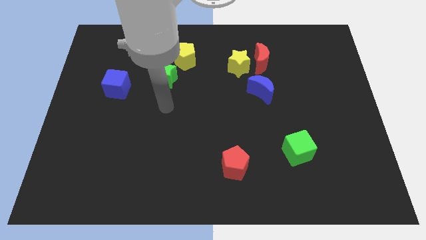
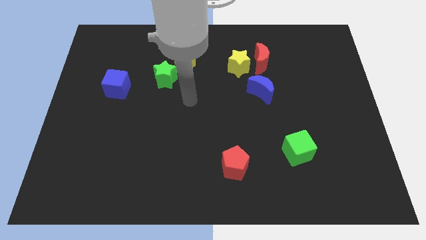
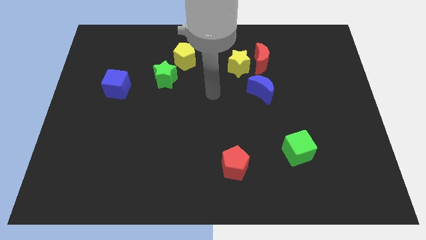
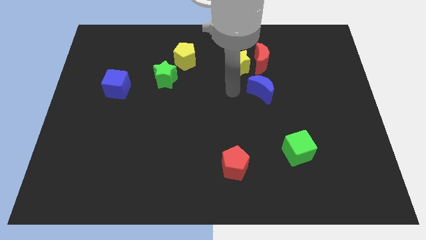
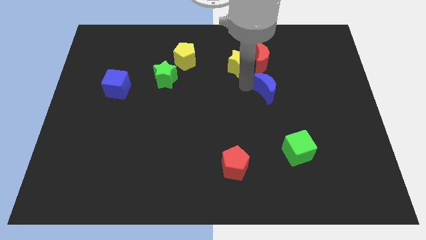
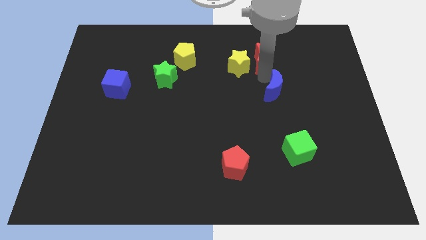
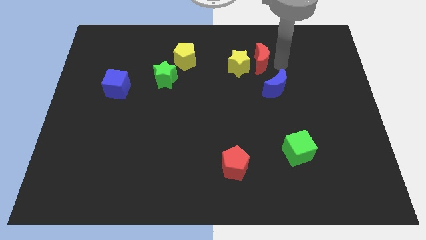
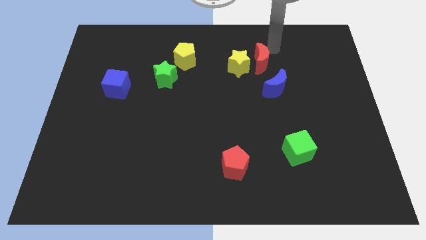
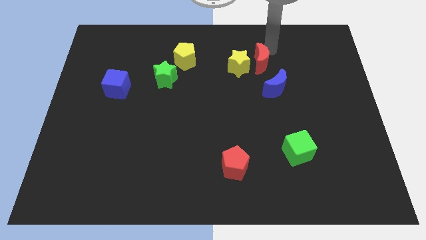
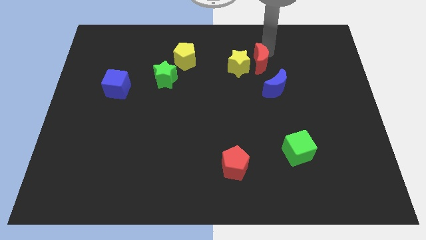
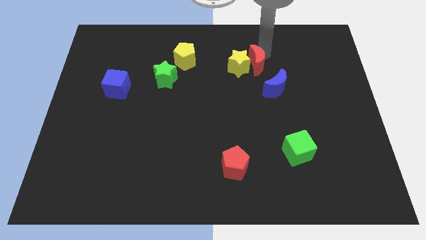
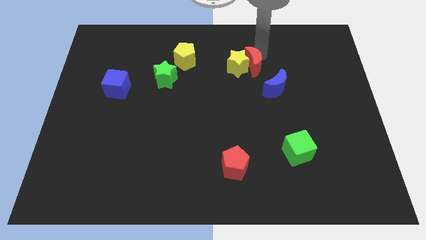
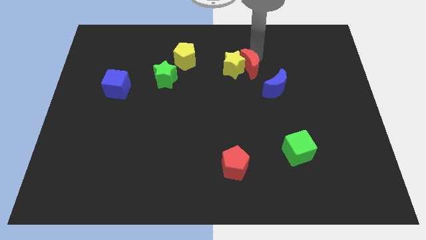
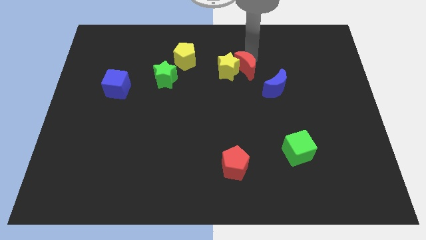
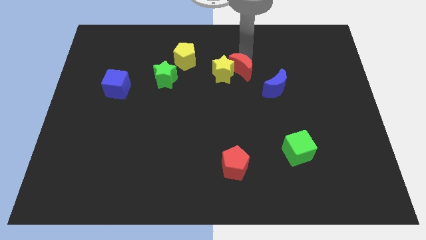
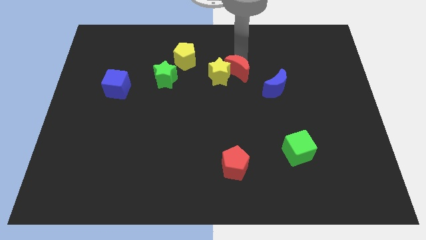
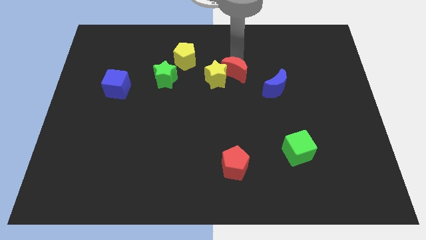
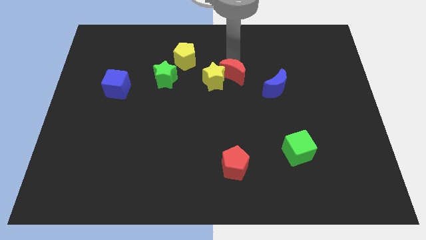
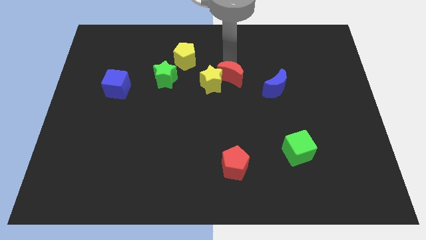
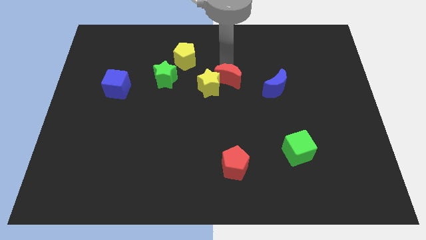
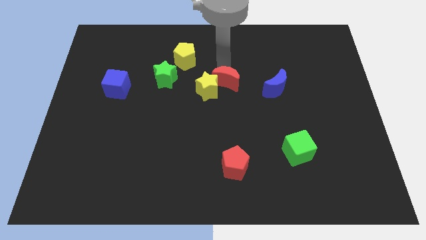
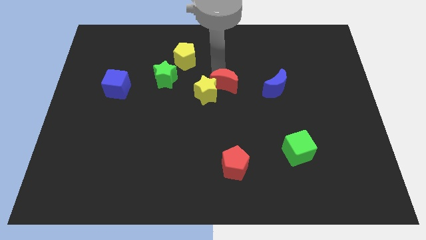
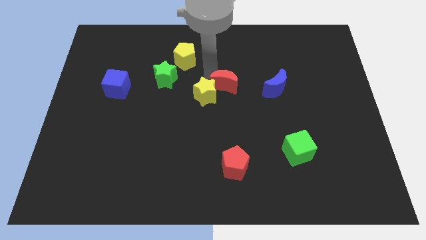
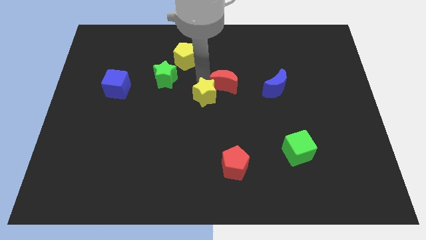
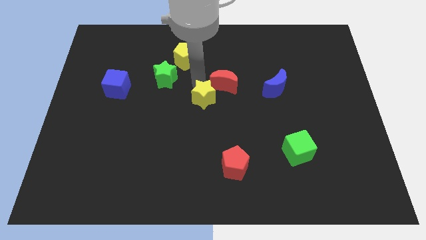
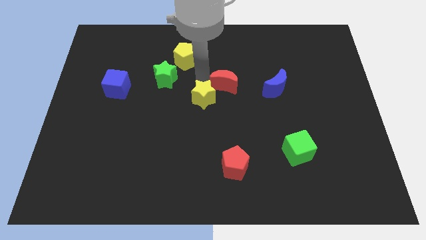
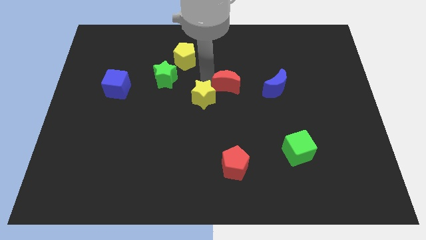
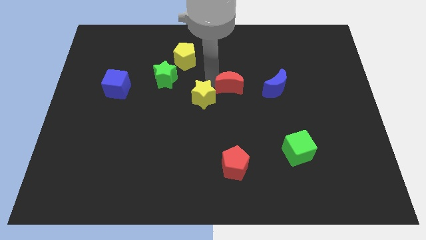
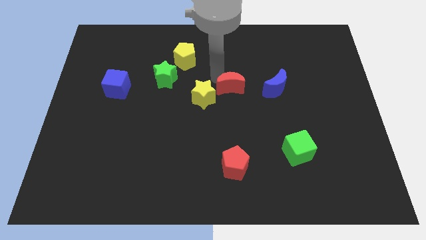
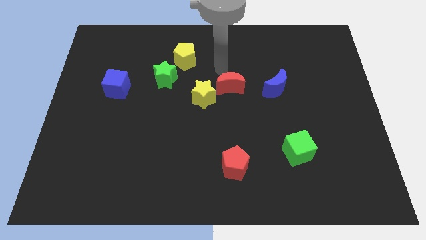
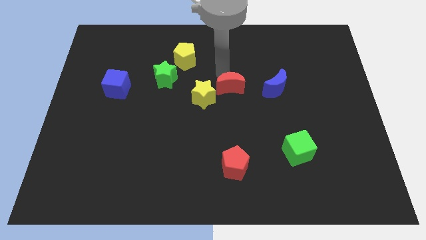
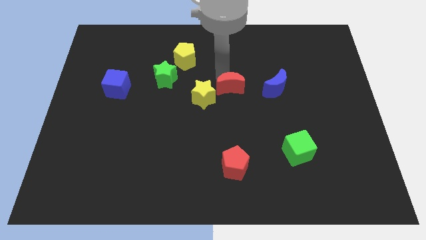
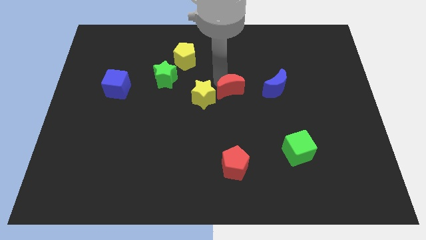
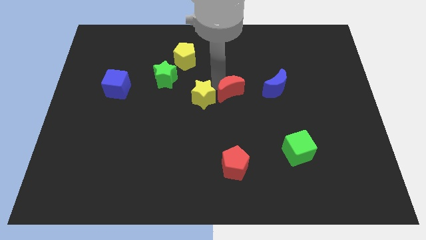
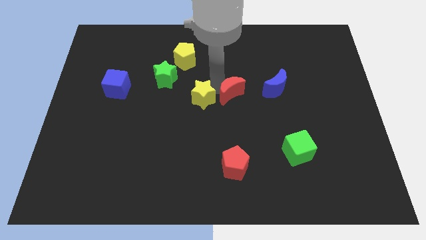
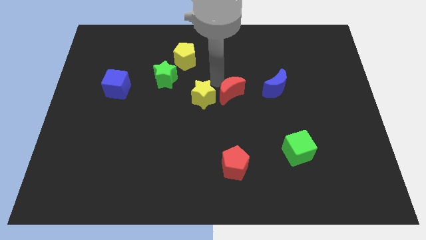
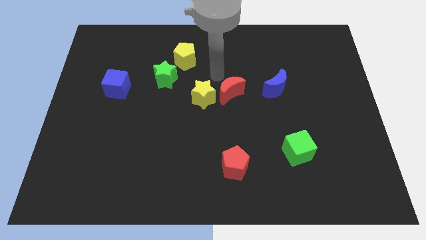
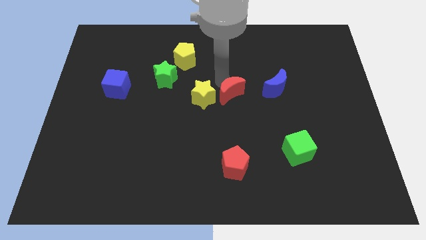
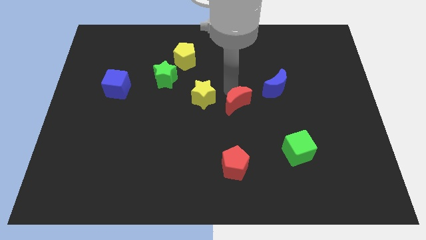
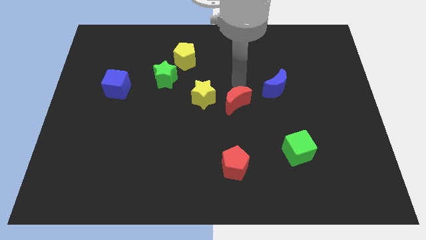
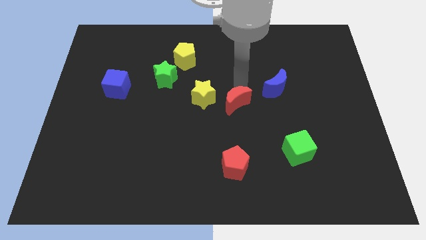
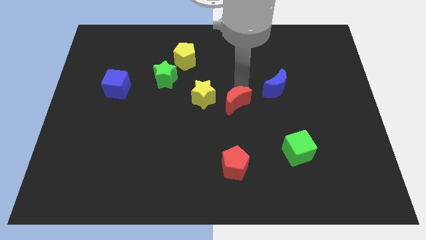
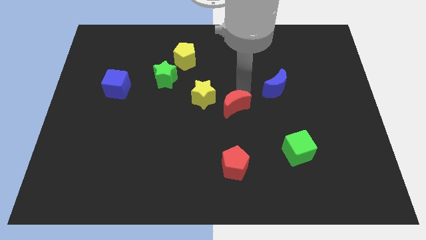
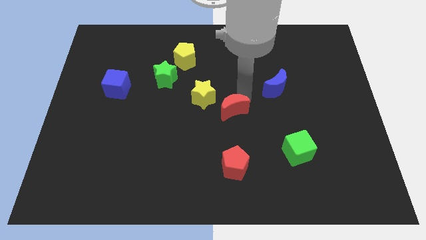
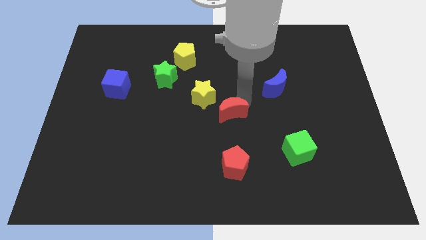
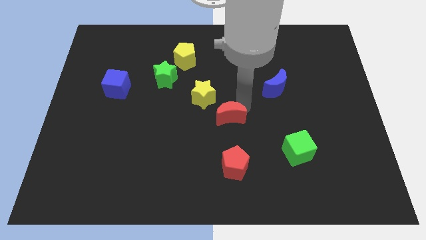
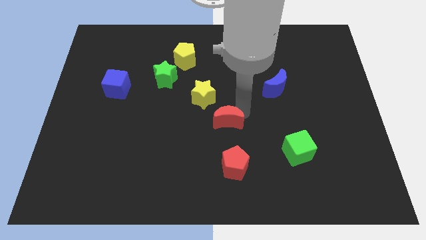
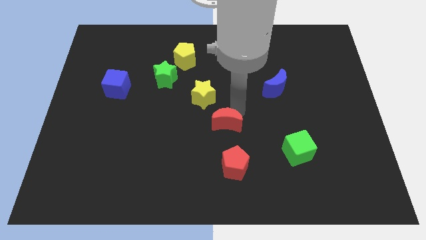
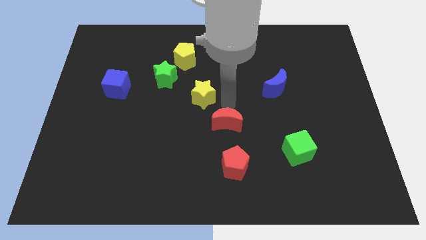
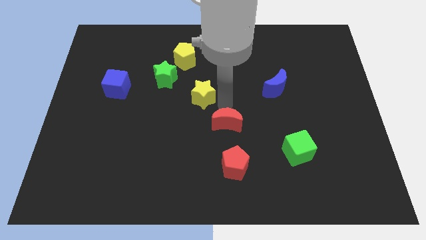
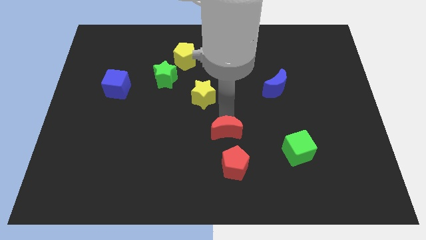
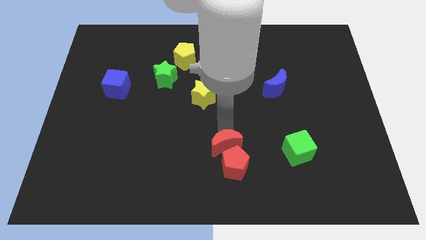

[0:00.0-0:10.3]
push the red moon close to the red pentagon

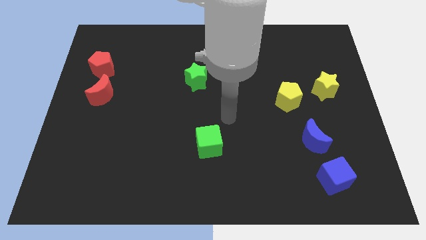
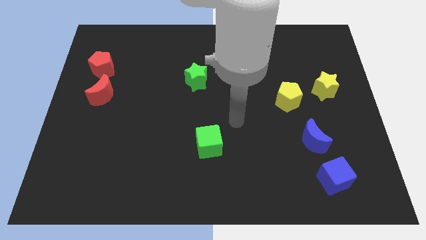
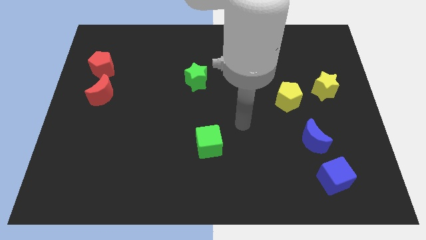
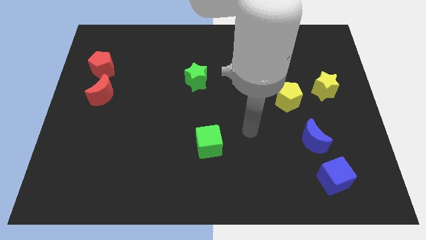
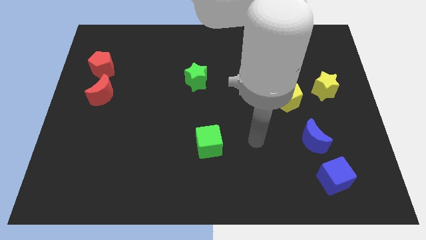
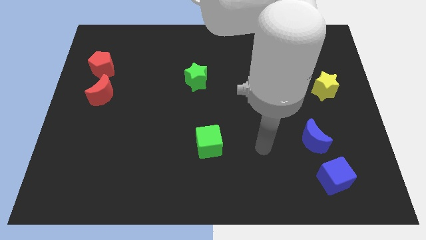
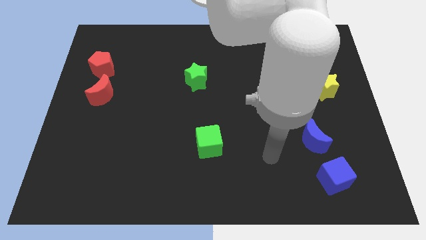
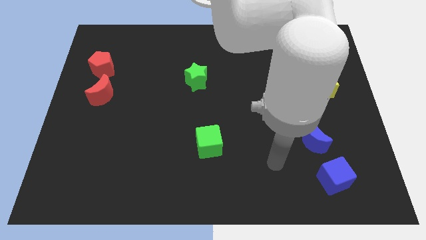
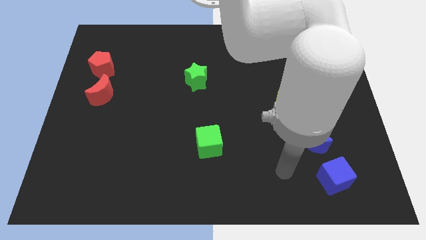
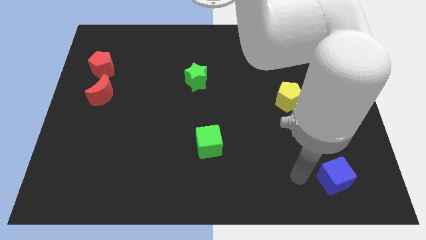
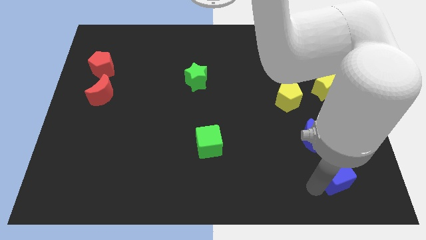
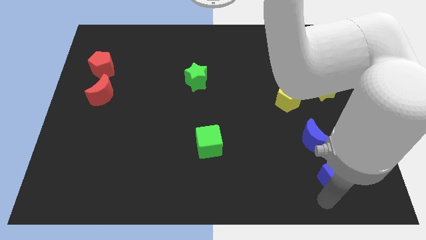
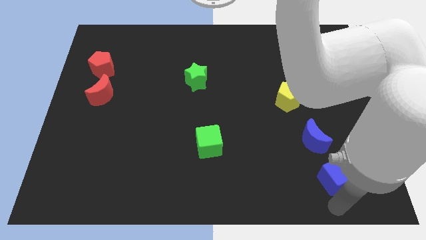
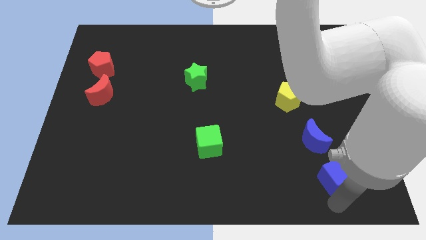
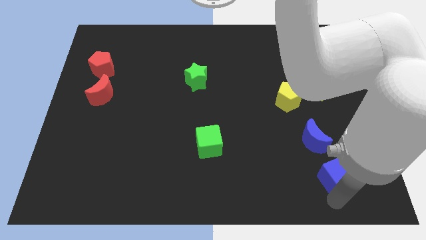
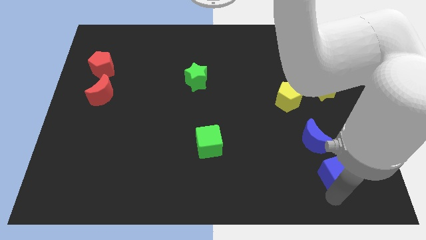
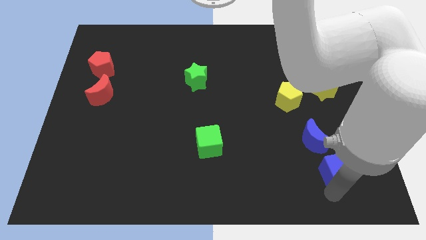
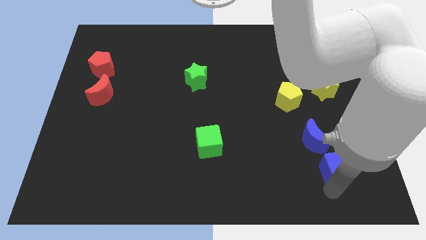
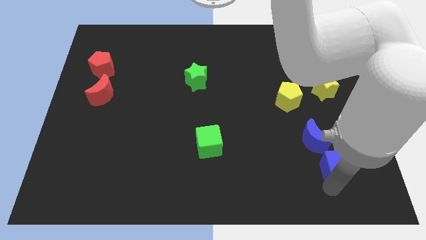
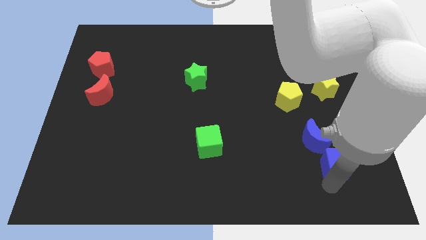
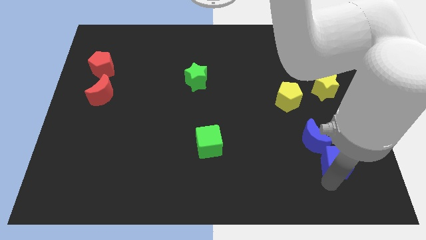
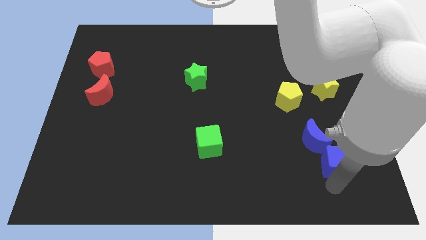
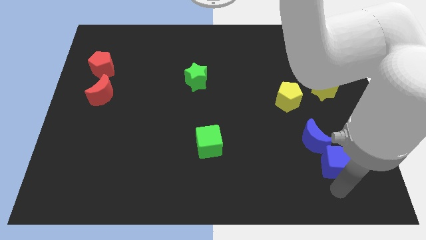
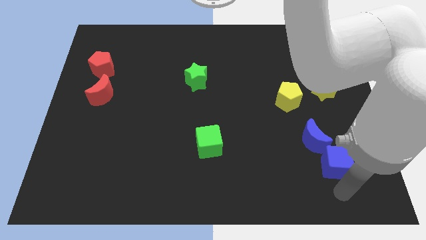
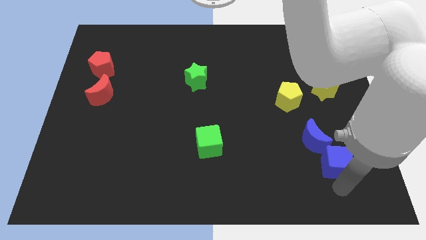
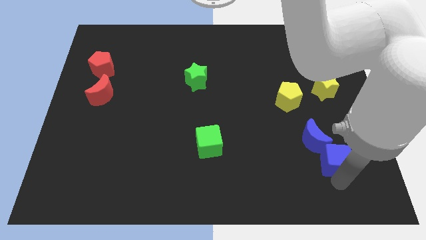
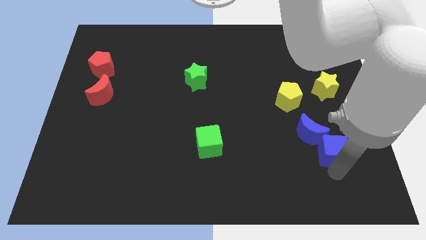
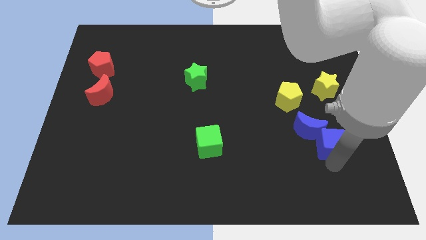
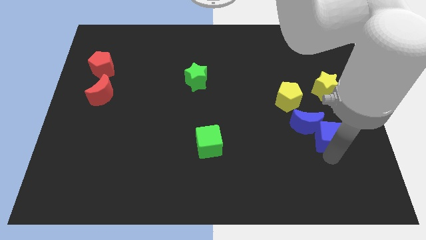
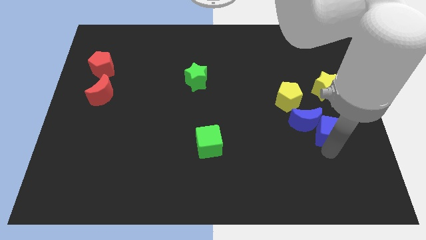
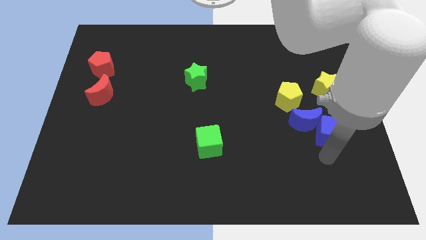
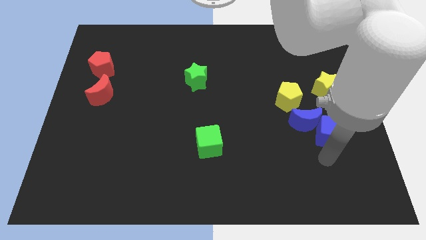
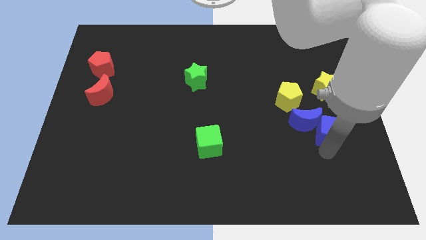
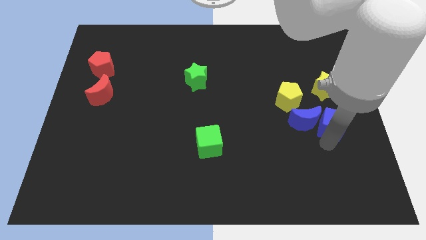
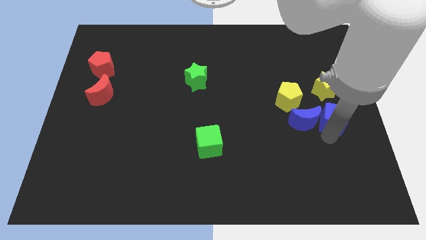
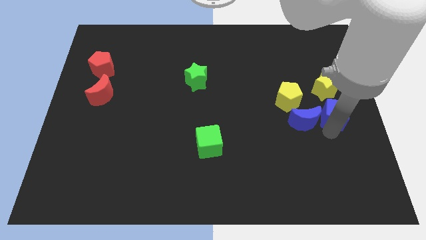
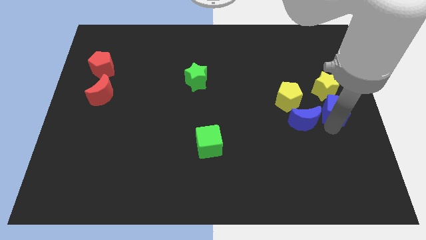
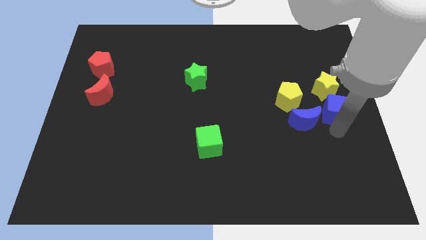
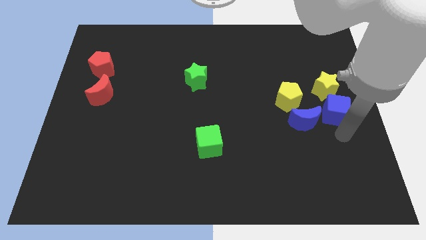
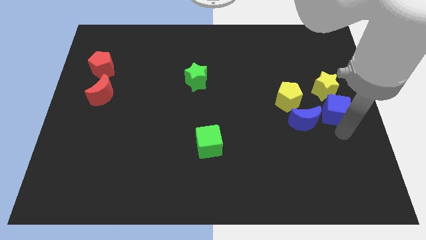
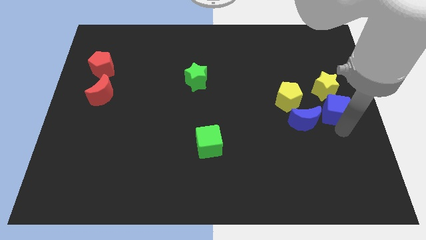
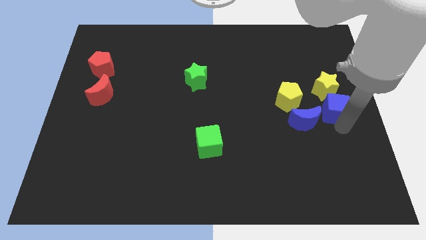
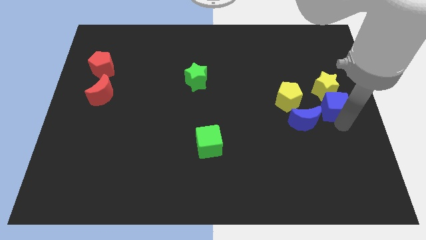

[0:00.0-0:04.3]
move the blue cube towards the yellow star
